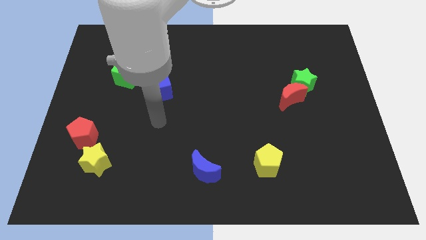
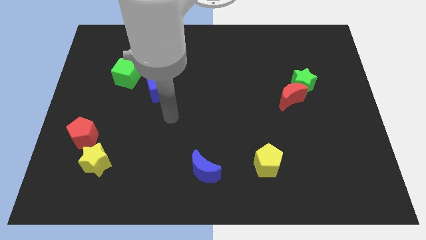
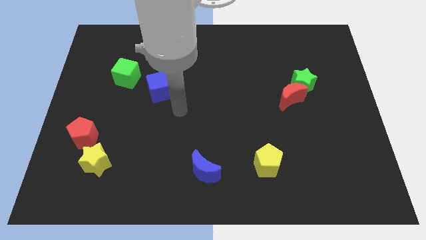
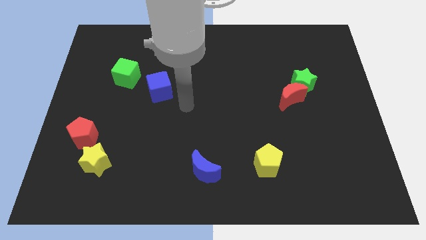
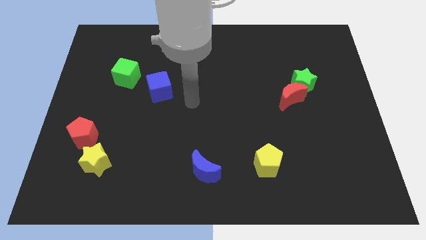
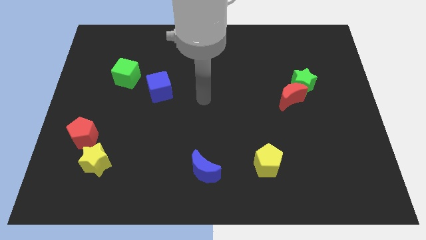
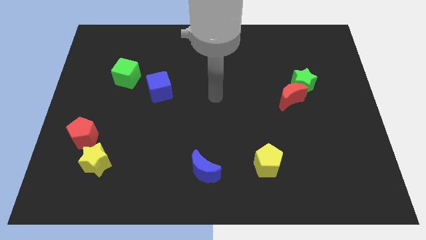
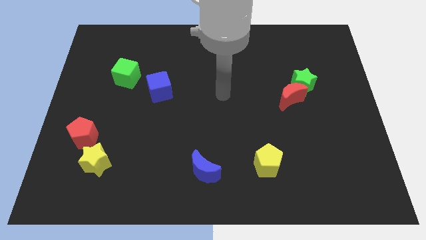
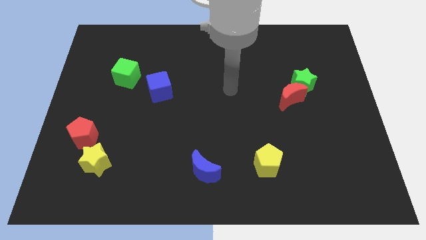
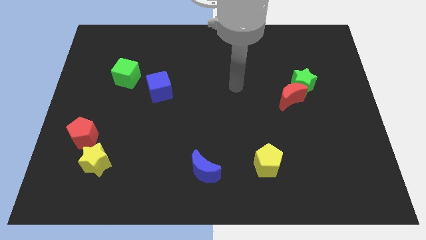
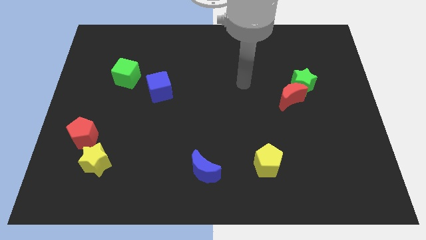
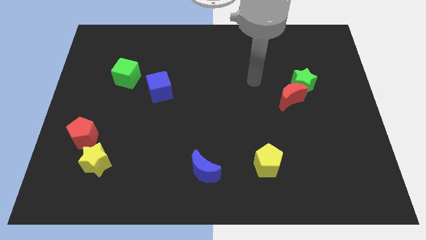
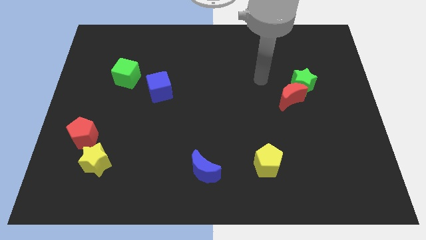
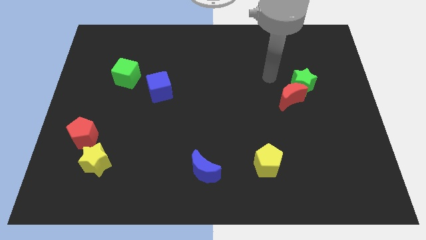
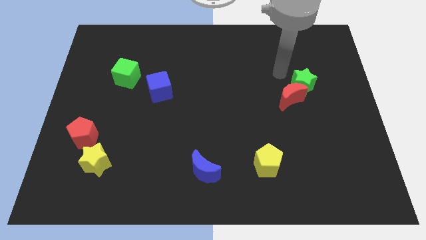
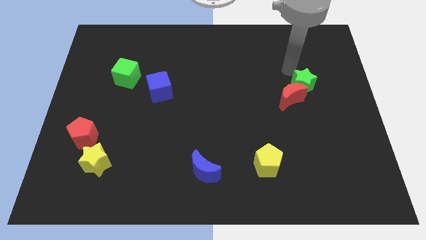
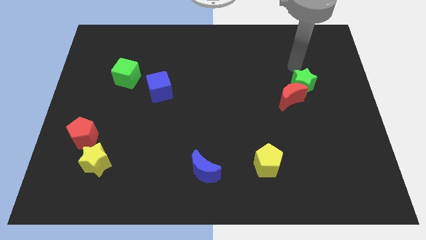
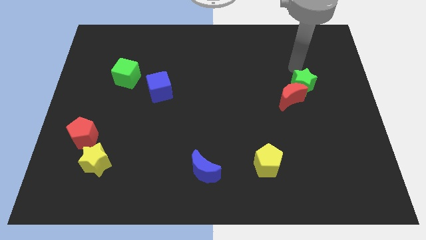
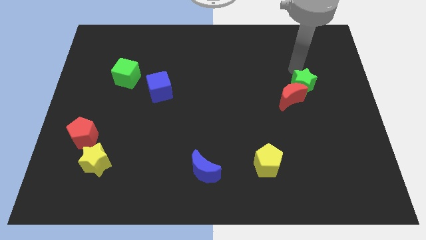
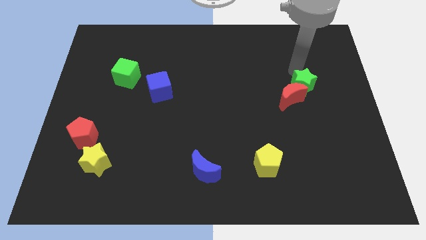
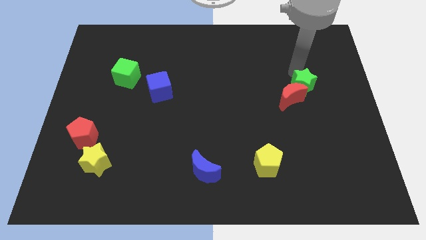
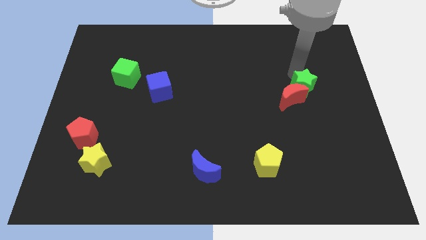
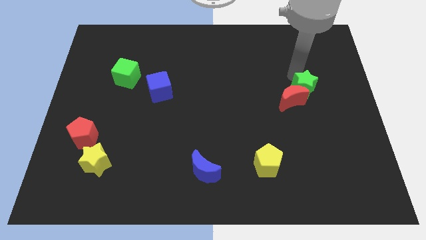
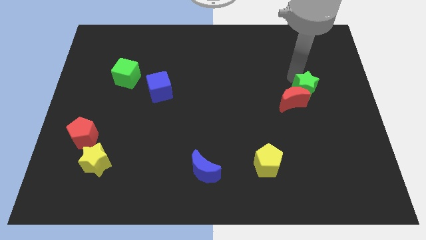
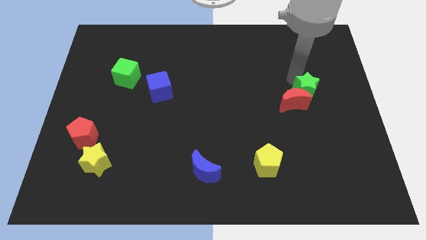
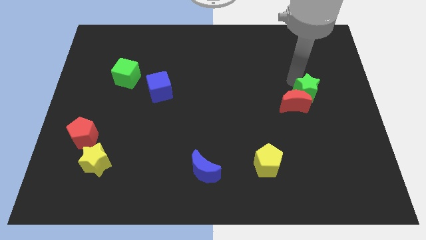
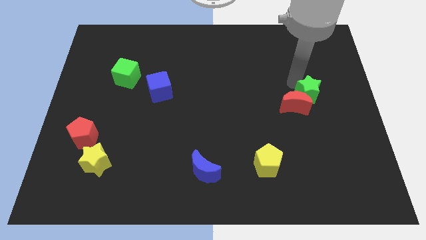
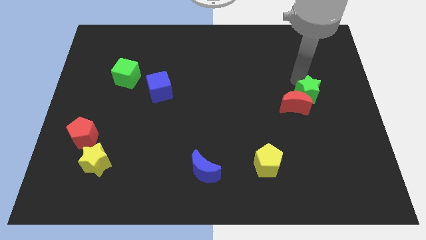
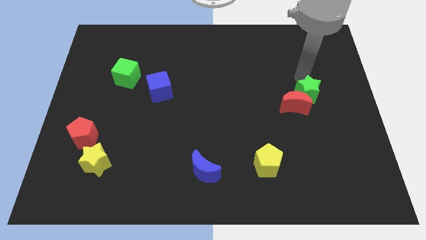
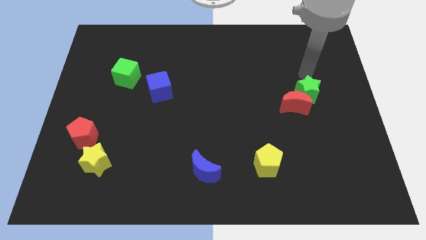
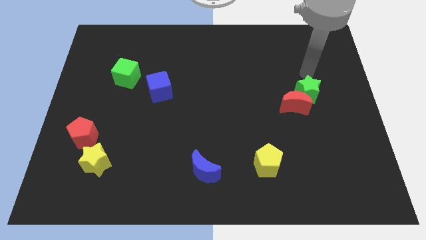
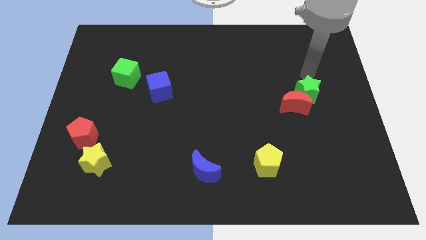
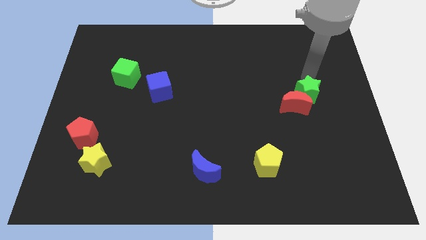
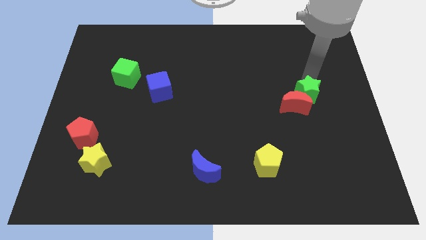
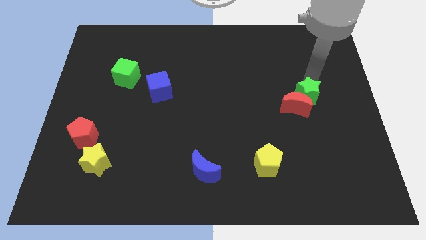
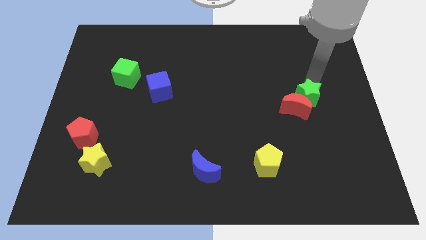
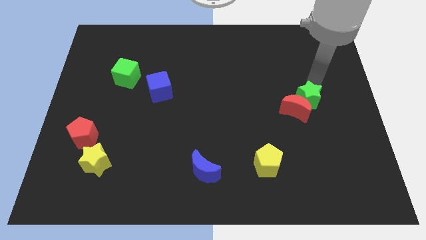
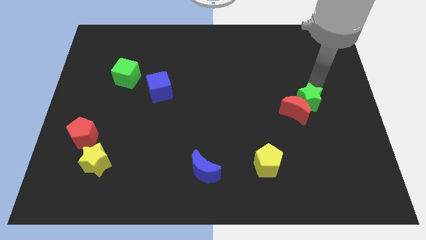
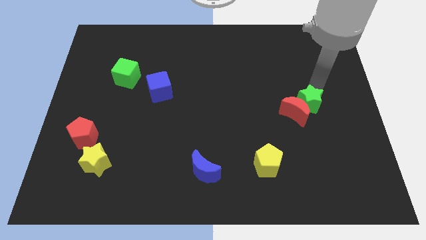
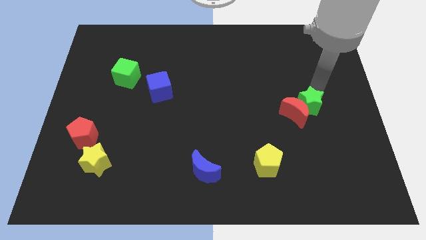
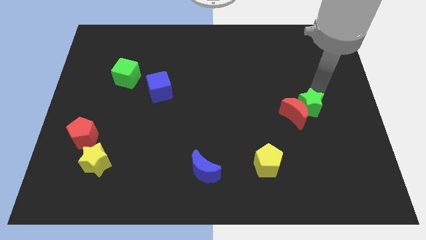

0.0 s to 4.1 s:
slightly push the green star down

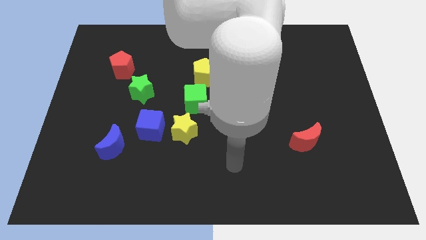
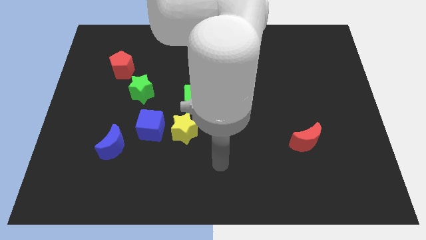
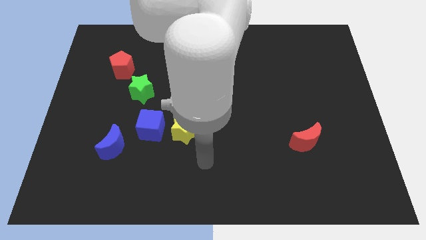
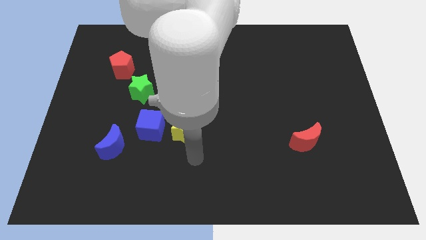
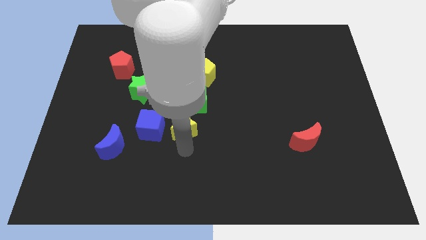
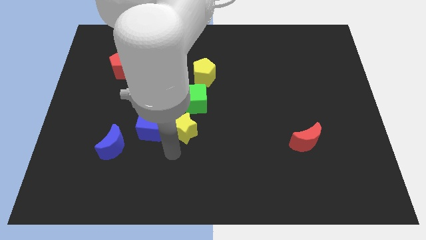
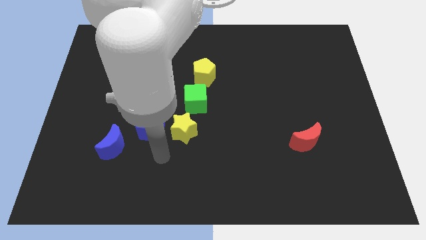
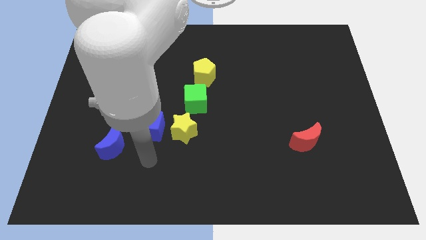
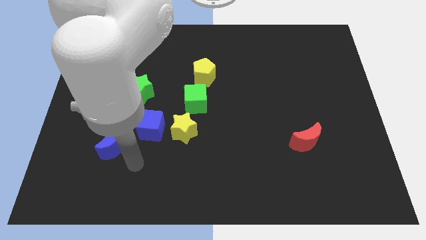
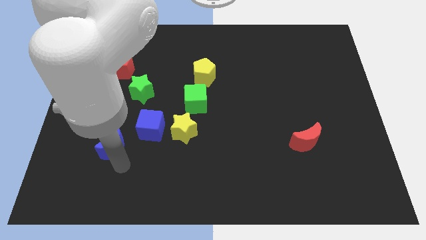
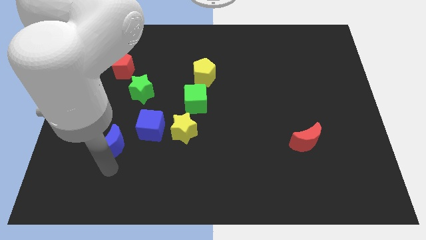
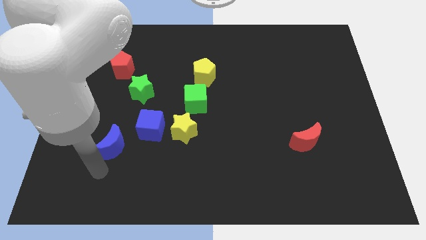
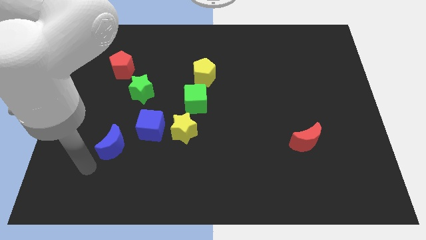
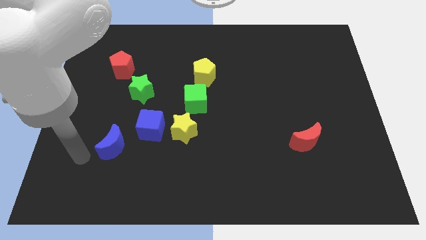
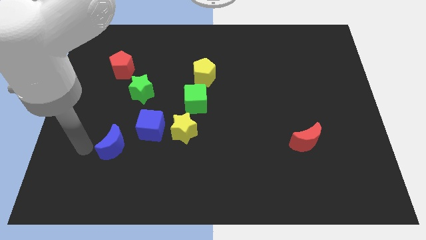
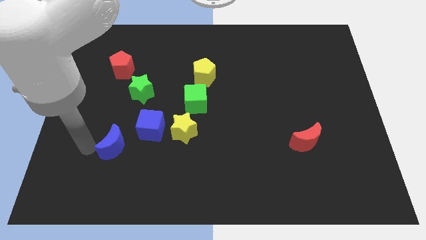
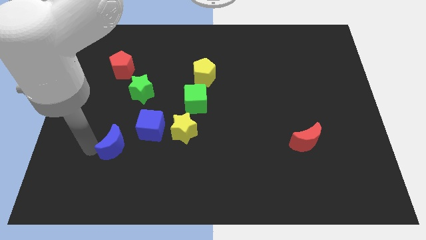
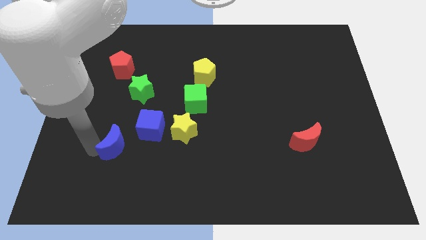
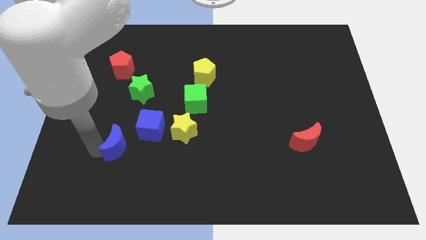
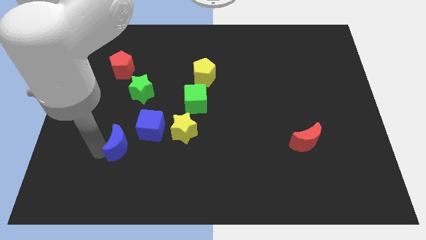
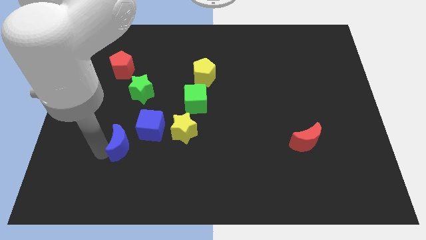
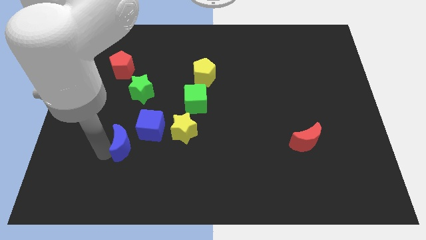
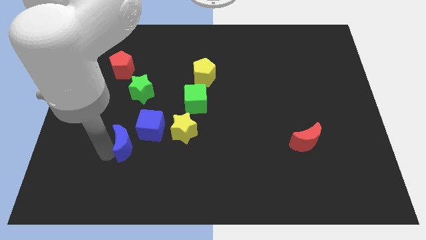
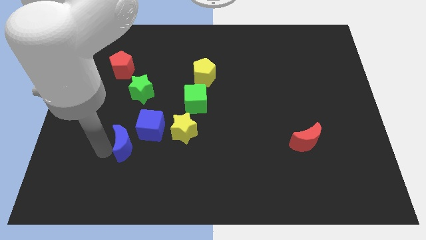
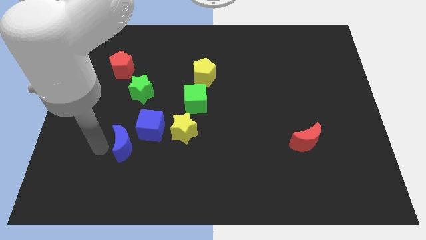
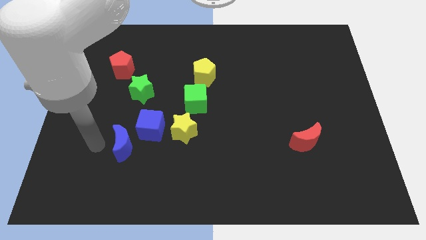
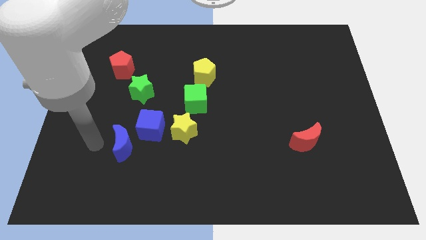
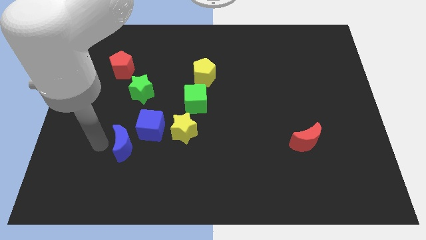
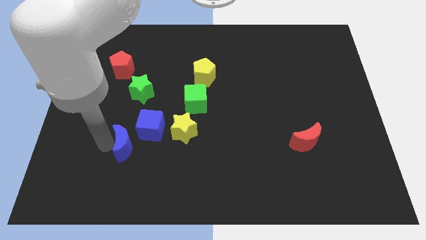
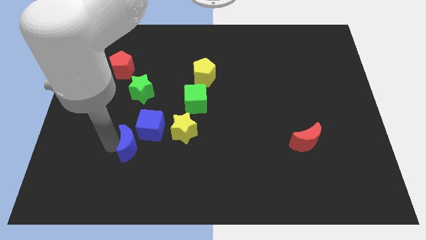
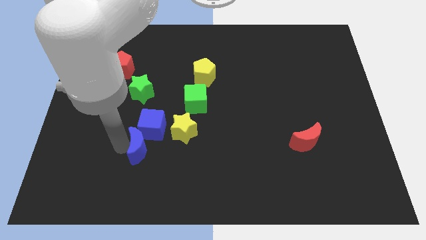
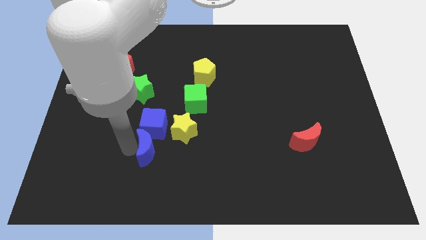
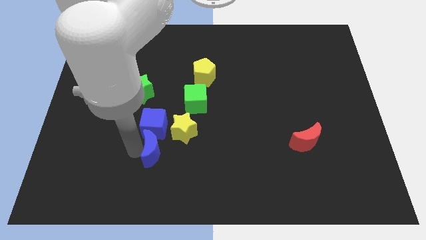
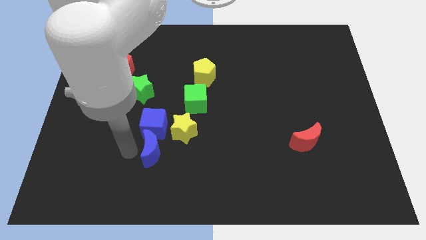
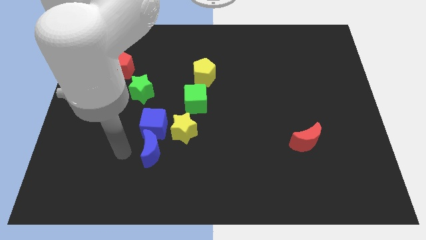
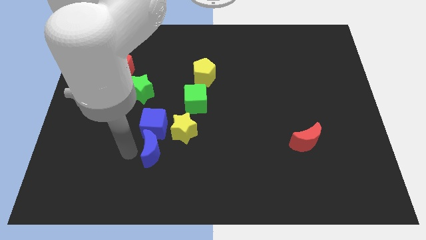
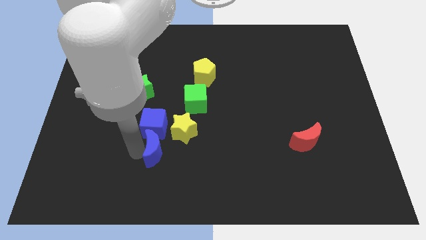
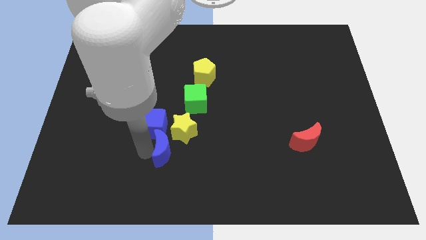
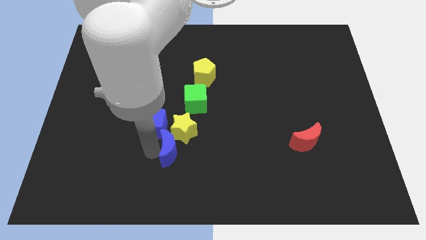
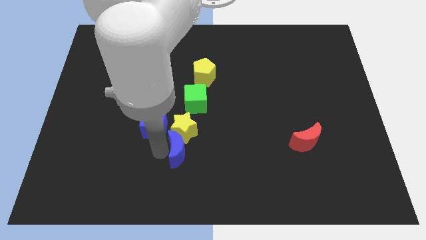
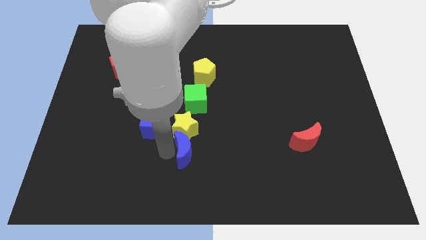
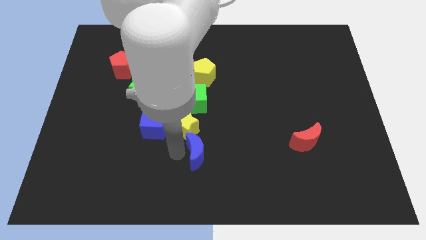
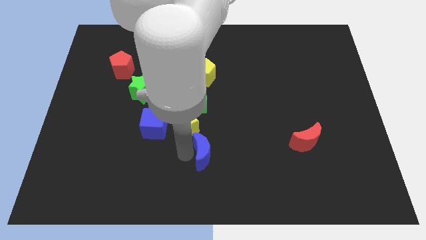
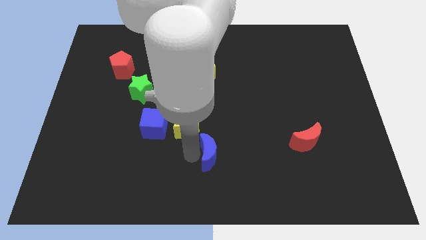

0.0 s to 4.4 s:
push the blue moon to the right
